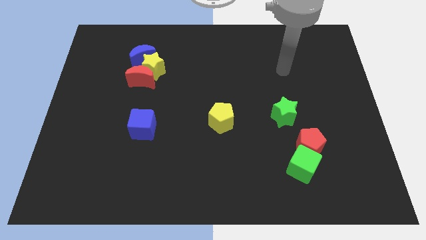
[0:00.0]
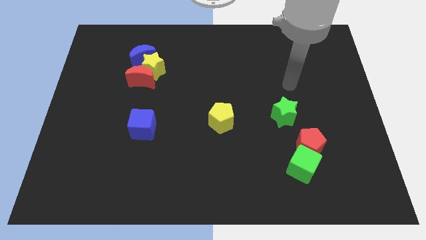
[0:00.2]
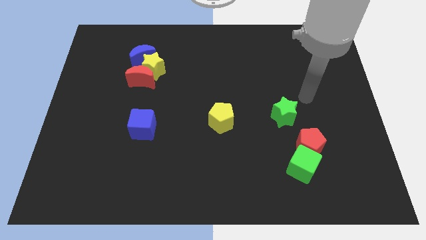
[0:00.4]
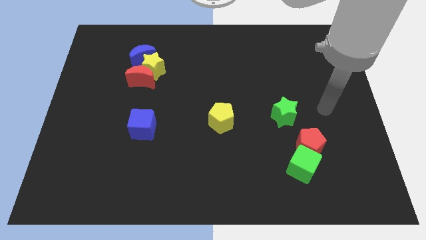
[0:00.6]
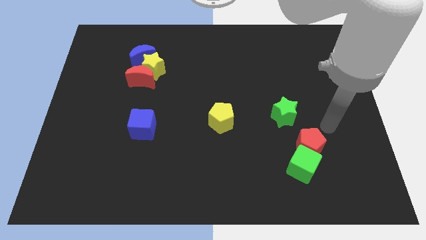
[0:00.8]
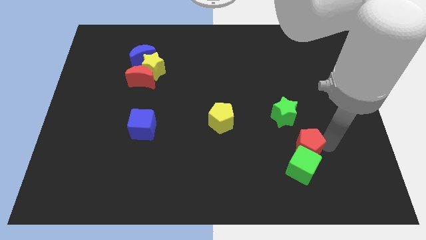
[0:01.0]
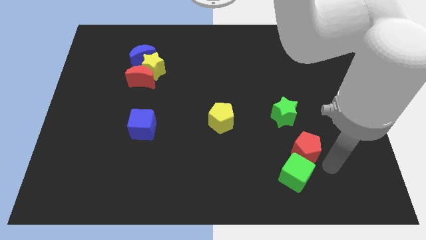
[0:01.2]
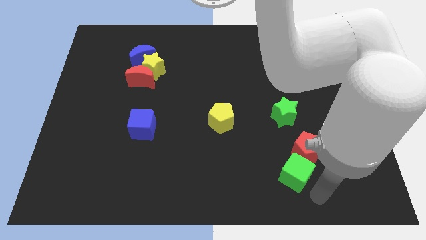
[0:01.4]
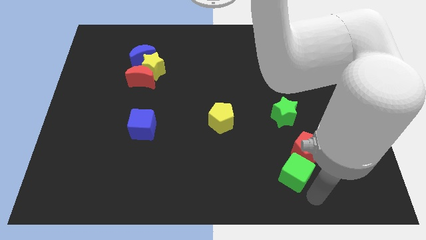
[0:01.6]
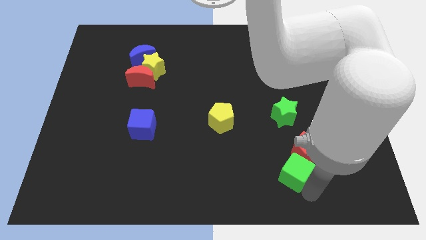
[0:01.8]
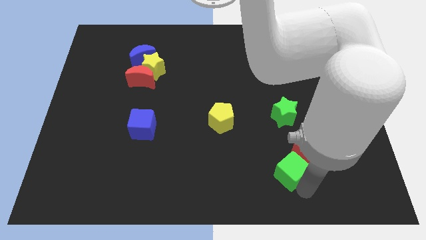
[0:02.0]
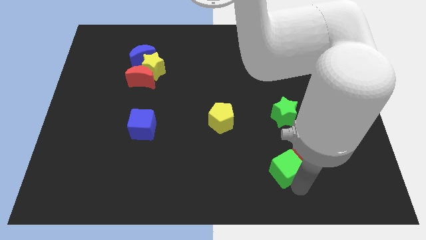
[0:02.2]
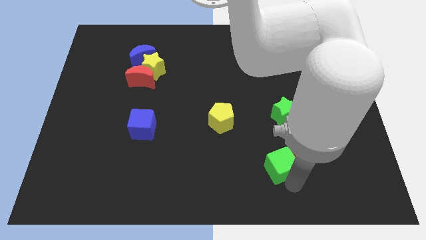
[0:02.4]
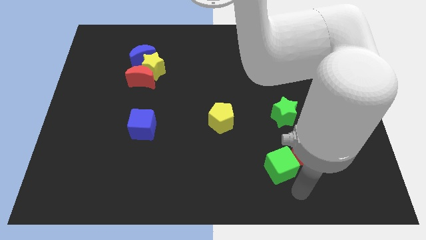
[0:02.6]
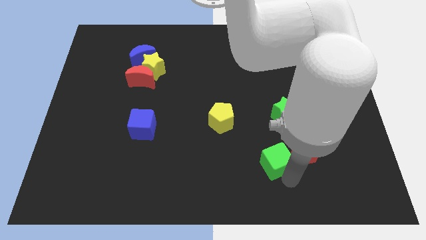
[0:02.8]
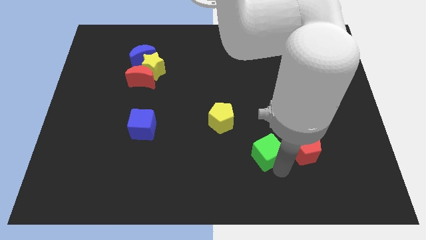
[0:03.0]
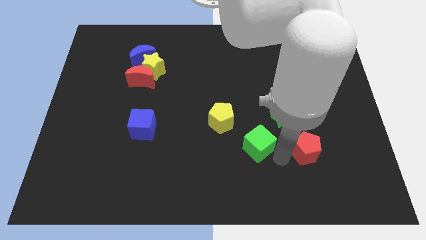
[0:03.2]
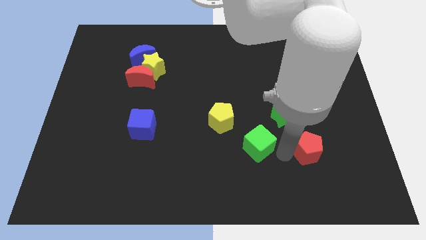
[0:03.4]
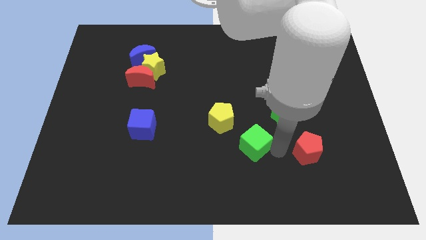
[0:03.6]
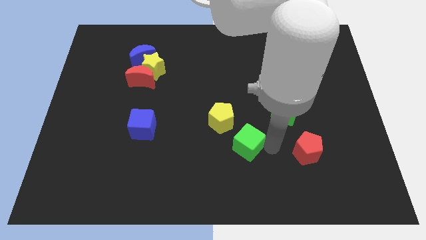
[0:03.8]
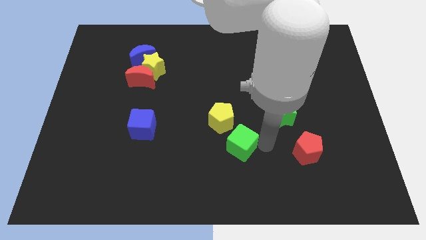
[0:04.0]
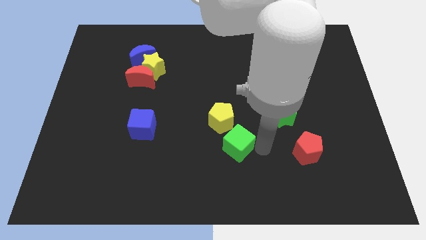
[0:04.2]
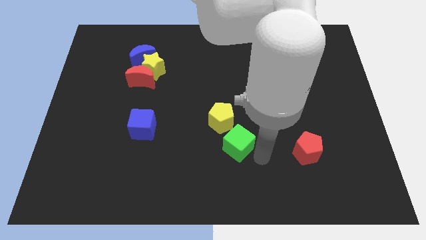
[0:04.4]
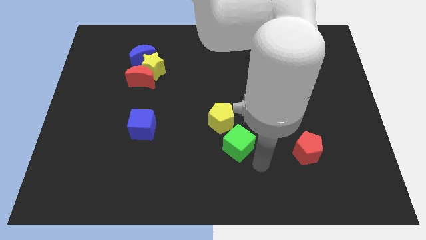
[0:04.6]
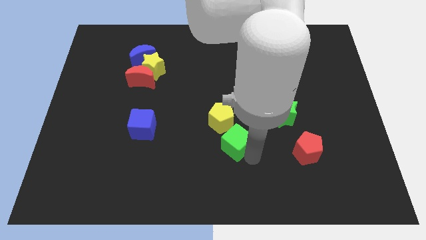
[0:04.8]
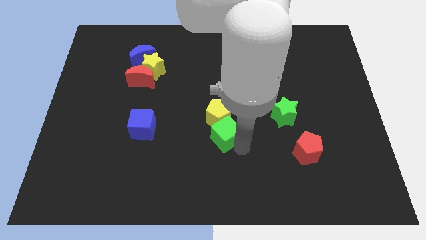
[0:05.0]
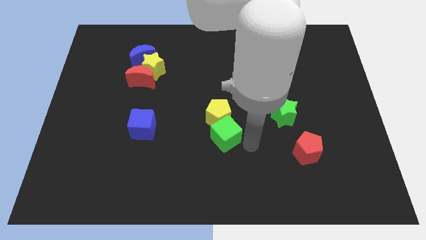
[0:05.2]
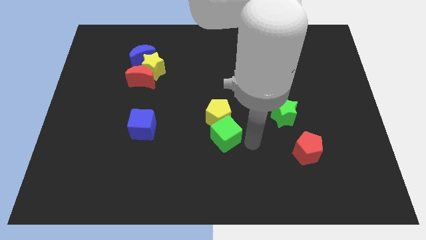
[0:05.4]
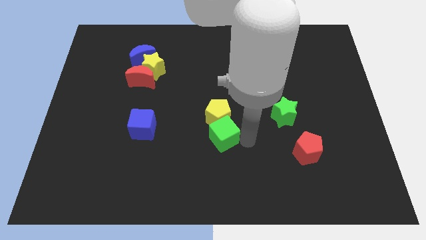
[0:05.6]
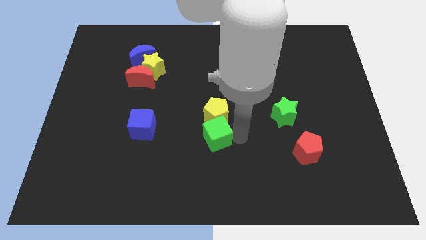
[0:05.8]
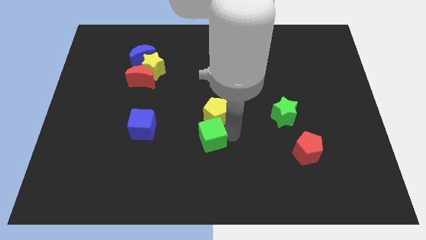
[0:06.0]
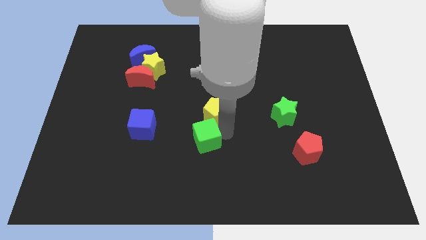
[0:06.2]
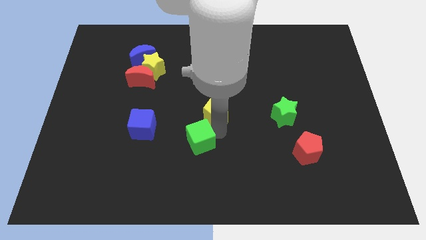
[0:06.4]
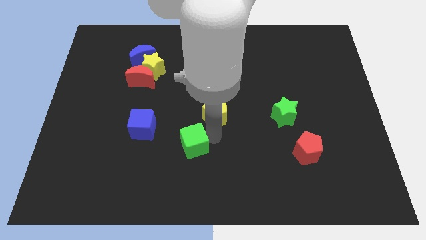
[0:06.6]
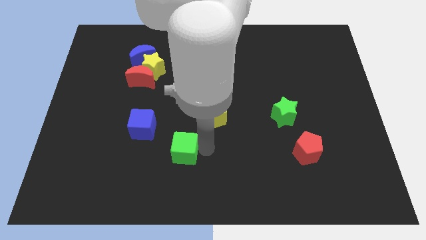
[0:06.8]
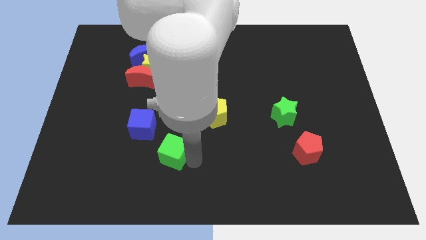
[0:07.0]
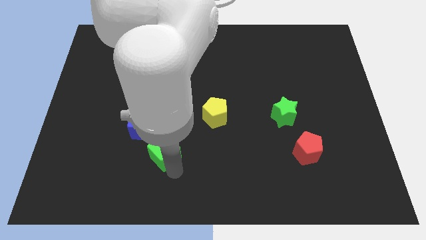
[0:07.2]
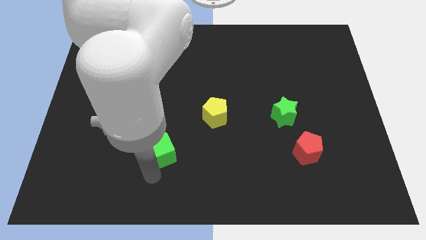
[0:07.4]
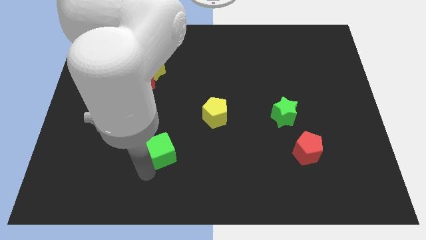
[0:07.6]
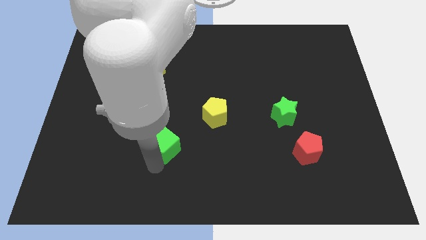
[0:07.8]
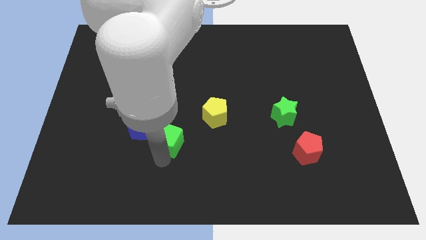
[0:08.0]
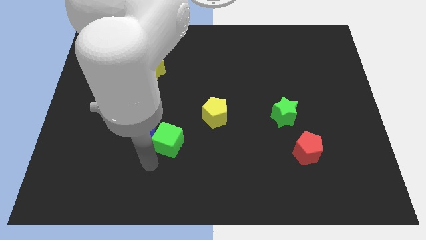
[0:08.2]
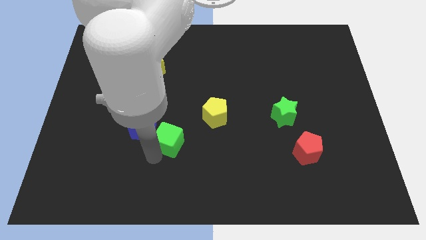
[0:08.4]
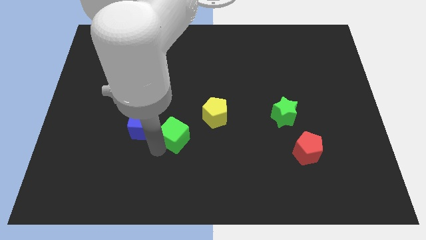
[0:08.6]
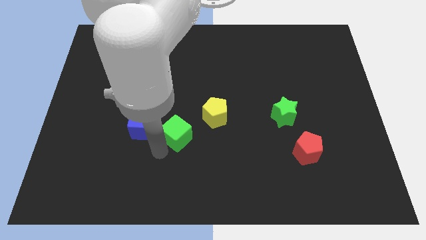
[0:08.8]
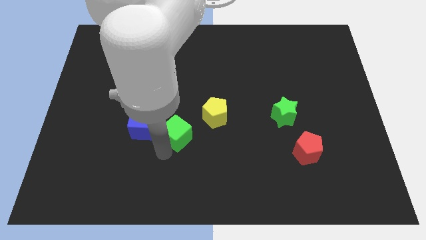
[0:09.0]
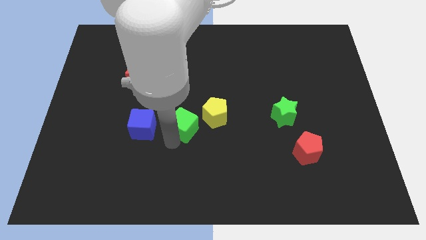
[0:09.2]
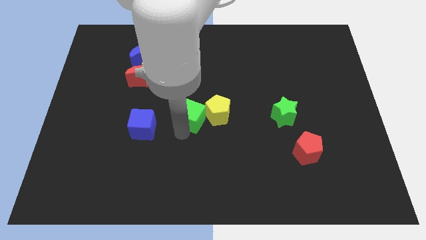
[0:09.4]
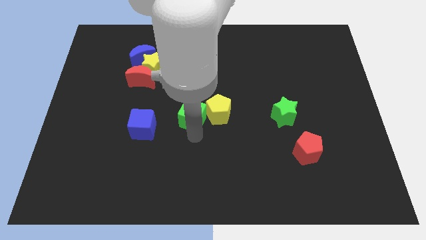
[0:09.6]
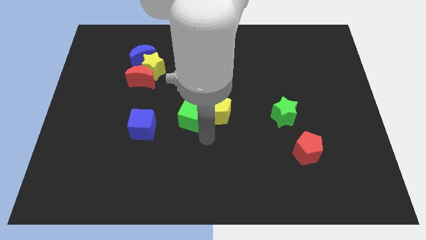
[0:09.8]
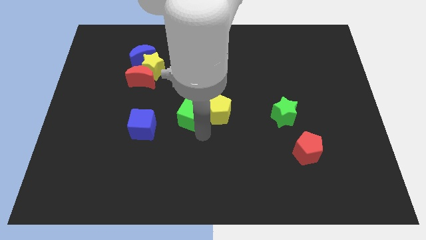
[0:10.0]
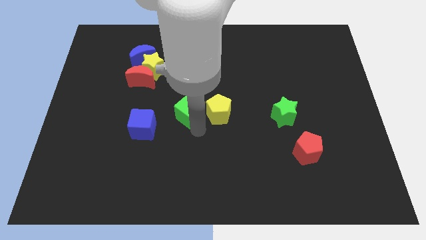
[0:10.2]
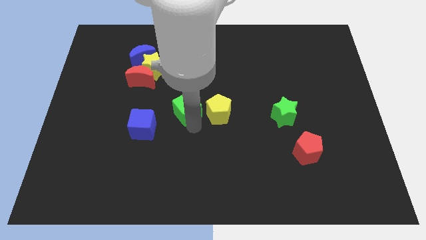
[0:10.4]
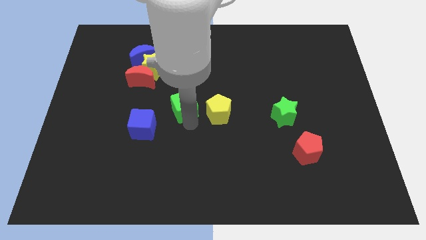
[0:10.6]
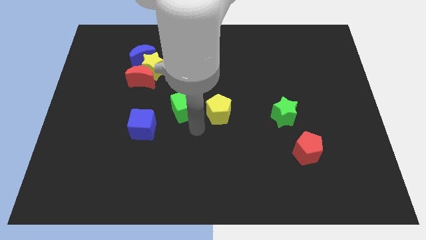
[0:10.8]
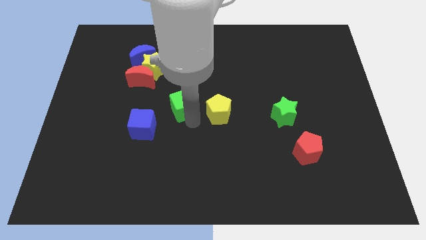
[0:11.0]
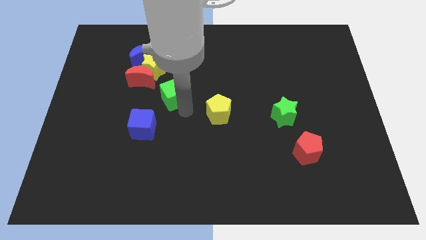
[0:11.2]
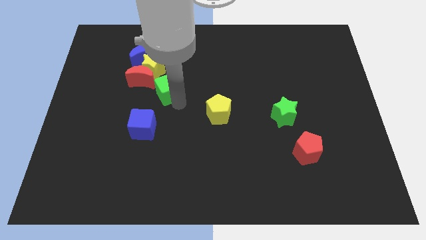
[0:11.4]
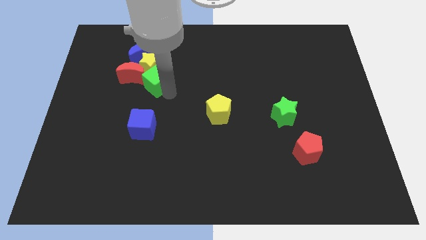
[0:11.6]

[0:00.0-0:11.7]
move the green cube towards the yellow star

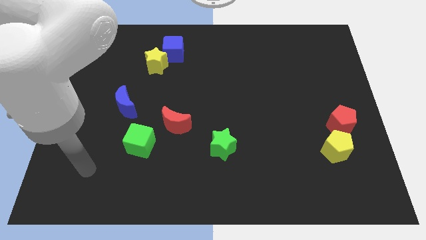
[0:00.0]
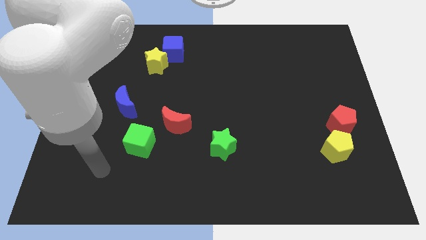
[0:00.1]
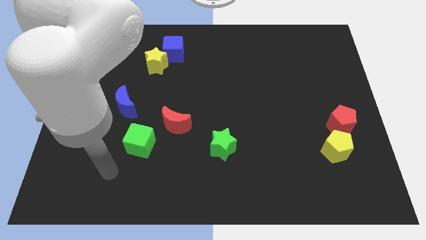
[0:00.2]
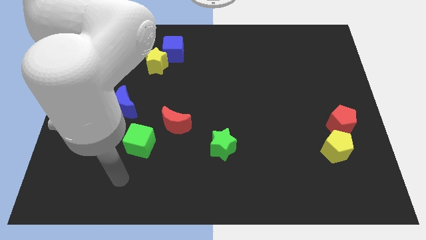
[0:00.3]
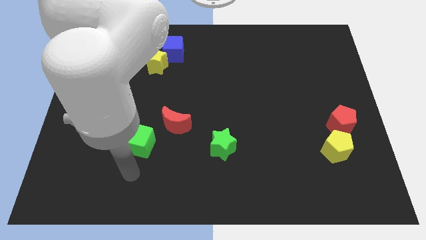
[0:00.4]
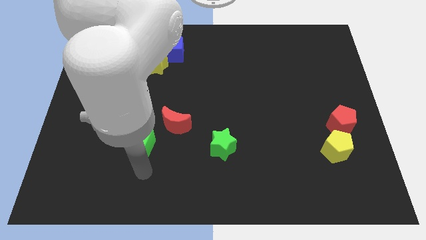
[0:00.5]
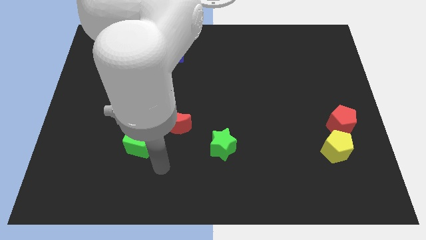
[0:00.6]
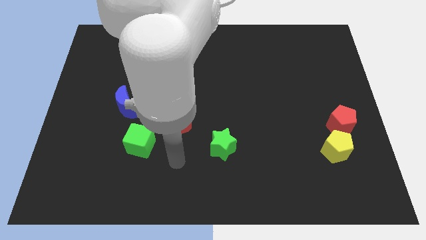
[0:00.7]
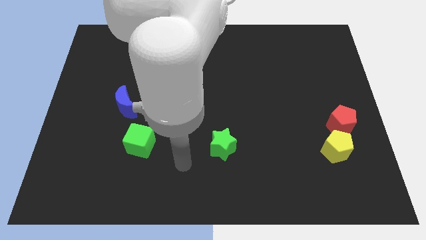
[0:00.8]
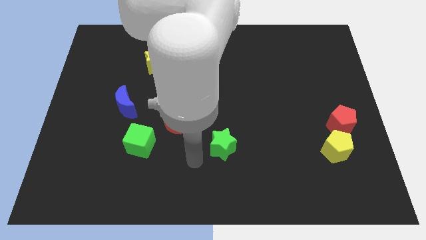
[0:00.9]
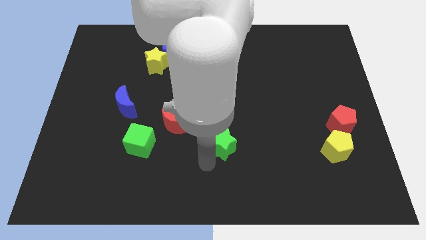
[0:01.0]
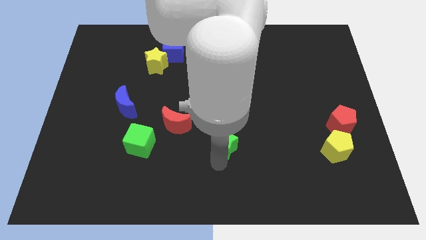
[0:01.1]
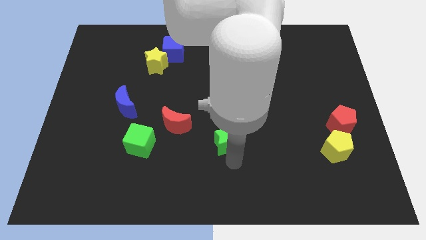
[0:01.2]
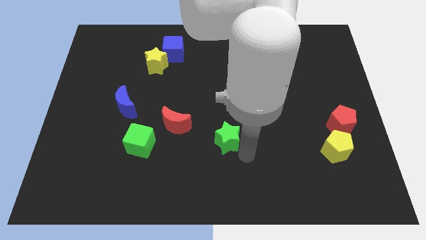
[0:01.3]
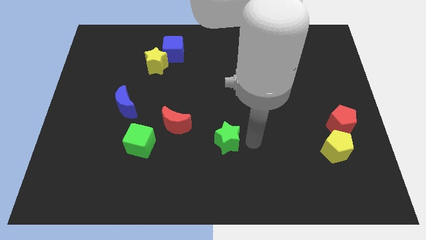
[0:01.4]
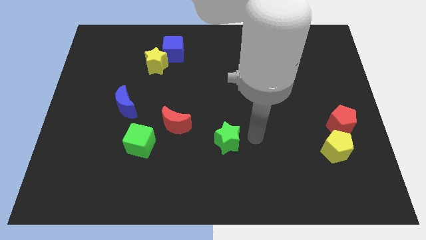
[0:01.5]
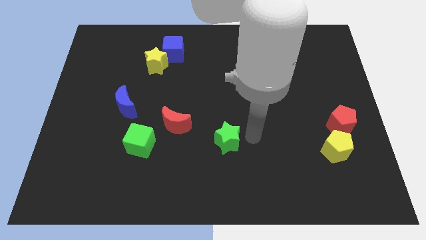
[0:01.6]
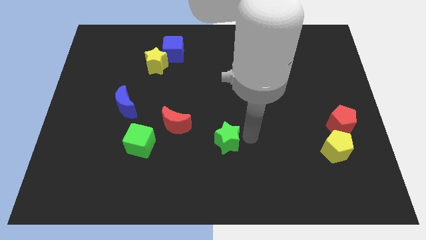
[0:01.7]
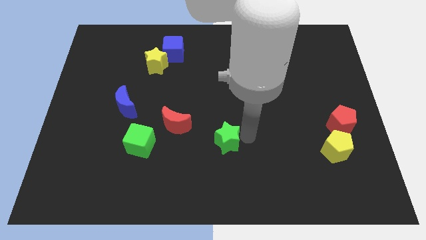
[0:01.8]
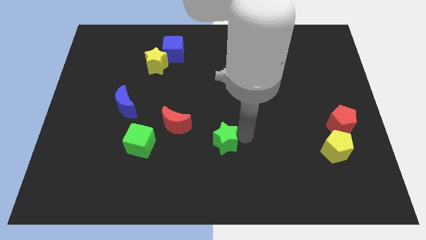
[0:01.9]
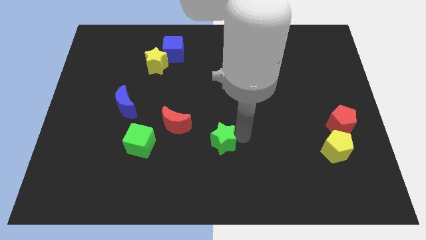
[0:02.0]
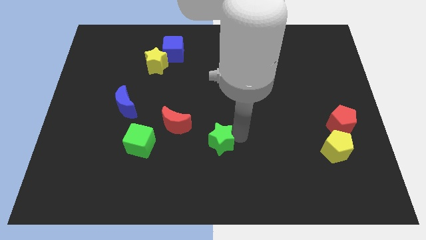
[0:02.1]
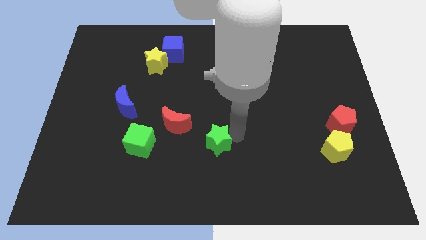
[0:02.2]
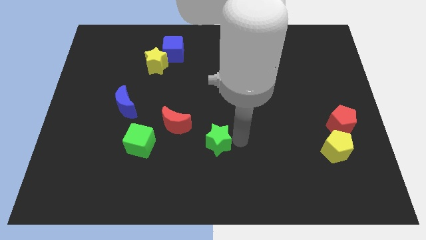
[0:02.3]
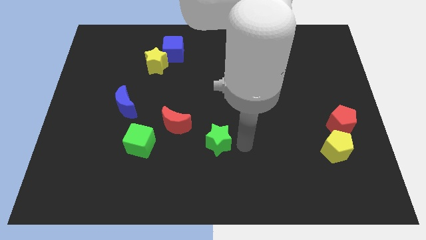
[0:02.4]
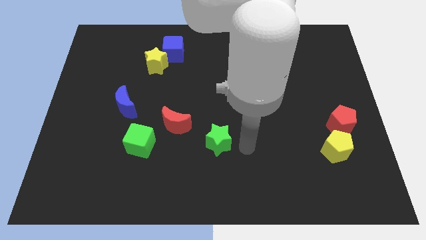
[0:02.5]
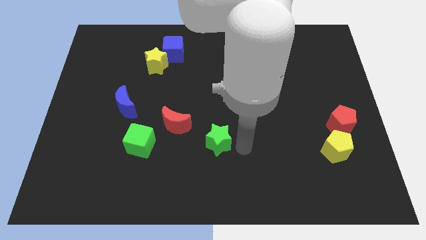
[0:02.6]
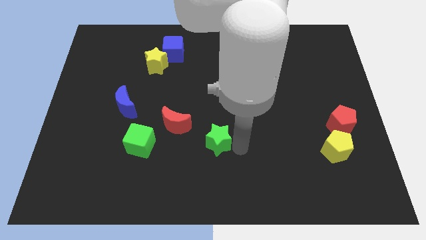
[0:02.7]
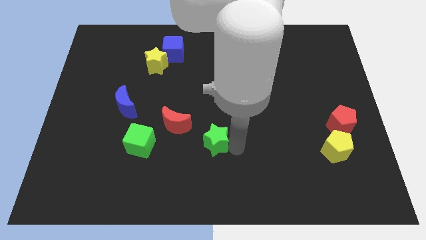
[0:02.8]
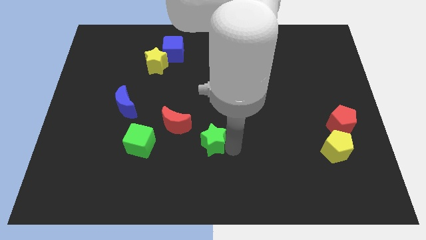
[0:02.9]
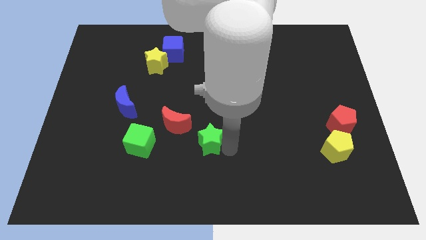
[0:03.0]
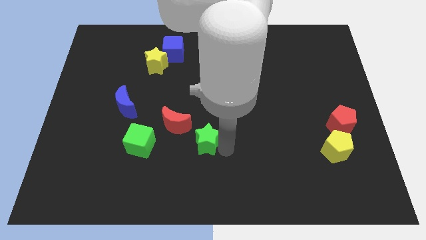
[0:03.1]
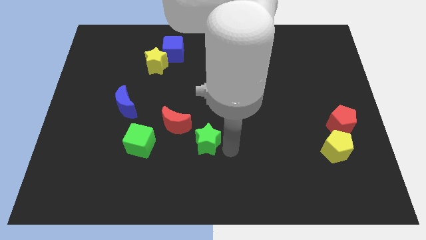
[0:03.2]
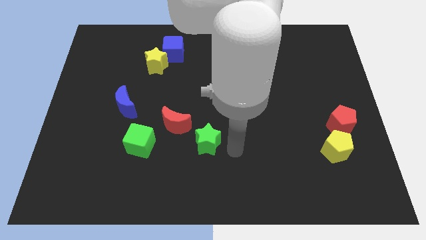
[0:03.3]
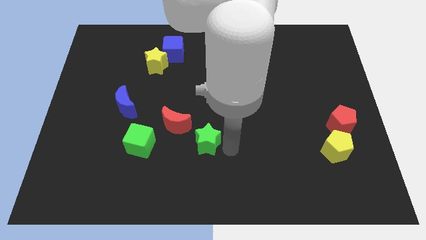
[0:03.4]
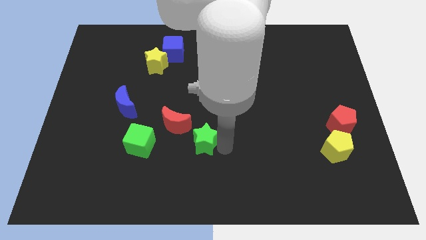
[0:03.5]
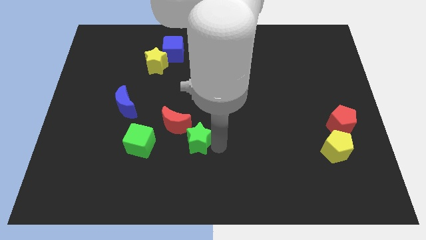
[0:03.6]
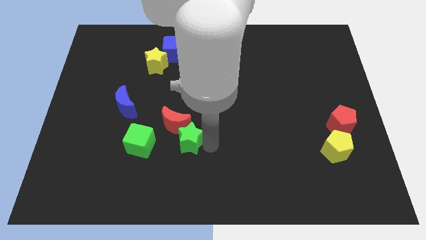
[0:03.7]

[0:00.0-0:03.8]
push the green star next to the red moon
